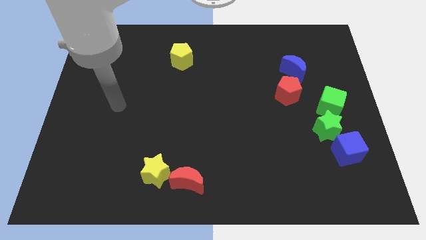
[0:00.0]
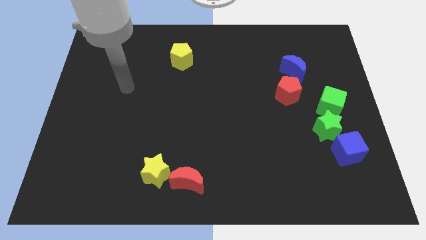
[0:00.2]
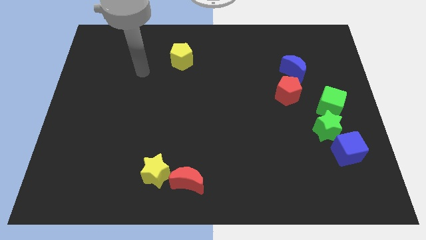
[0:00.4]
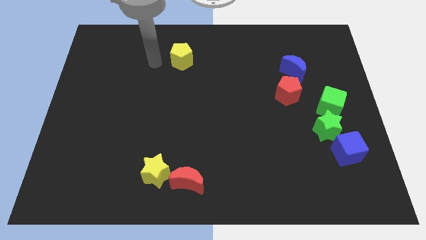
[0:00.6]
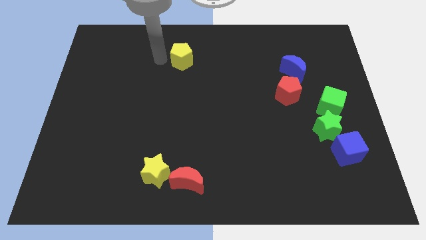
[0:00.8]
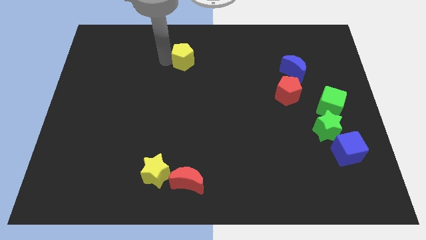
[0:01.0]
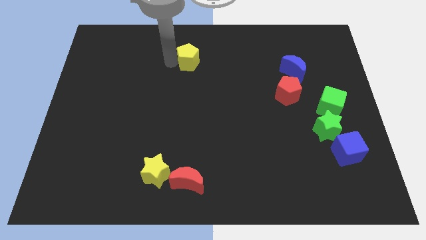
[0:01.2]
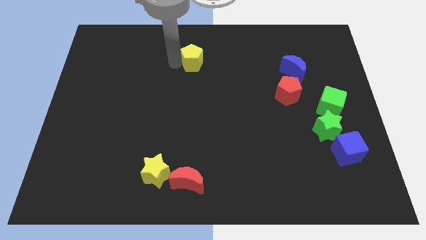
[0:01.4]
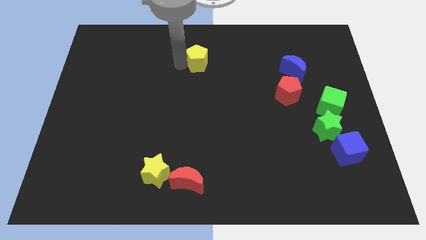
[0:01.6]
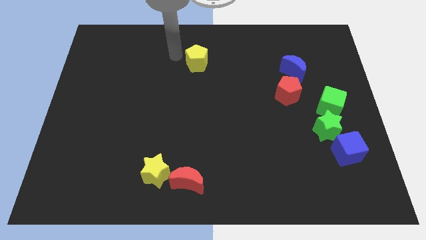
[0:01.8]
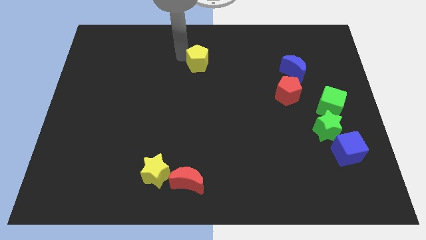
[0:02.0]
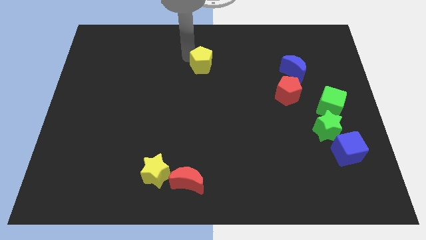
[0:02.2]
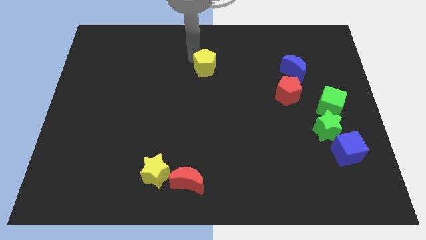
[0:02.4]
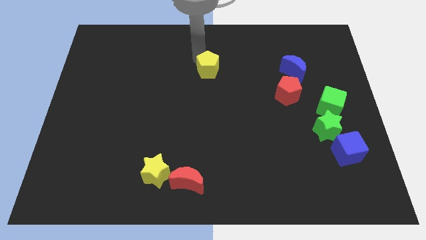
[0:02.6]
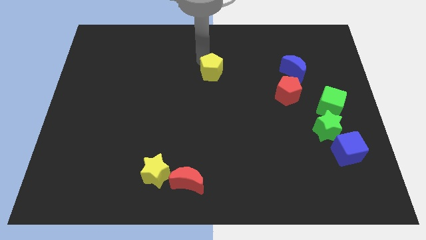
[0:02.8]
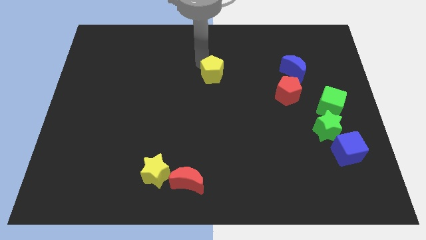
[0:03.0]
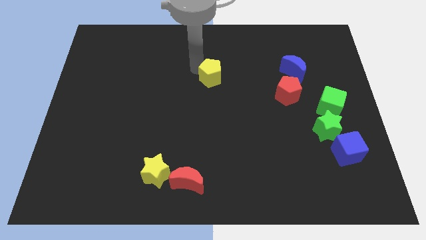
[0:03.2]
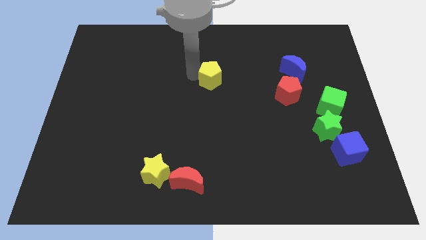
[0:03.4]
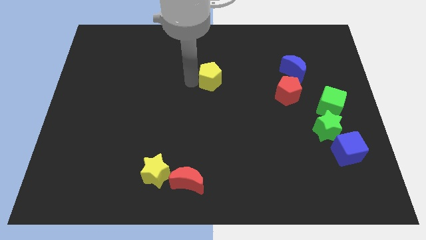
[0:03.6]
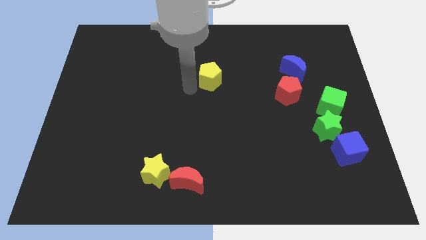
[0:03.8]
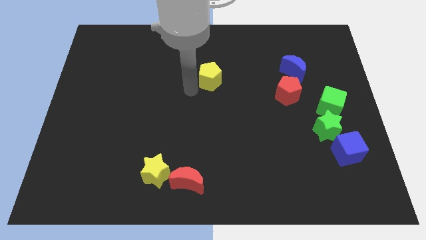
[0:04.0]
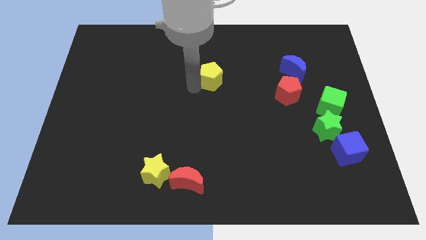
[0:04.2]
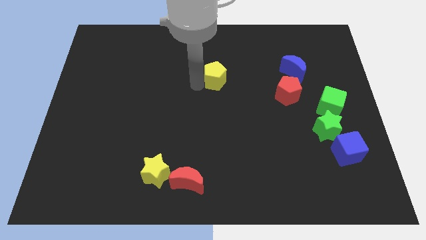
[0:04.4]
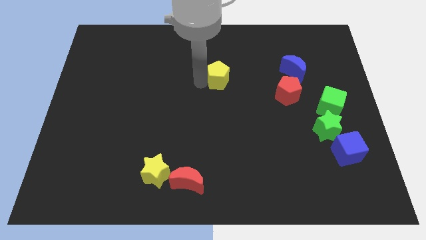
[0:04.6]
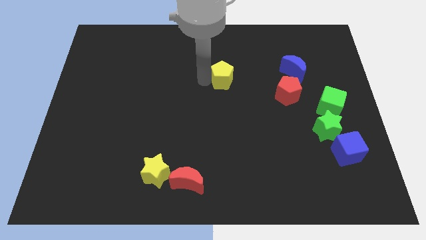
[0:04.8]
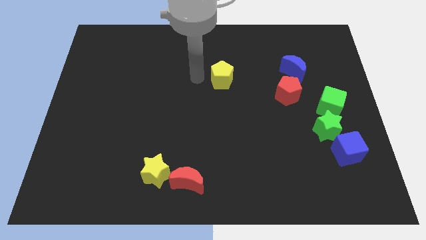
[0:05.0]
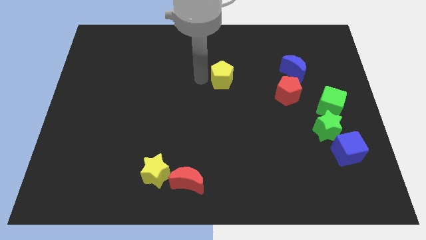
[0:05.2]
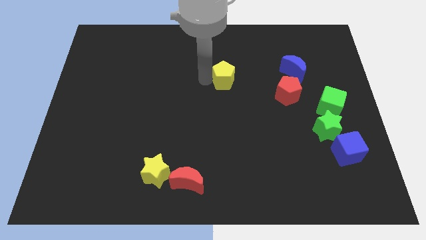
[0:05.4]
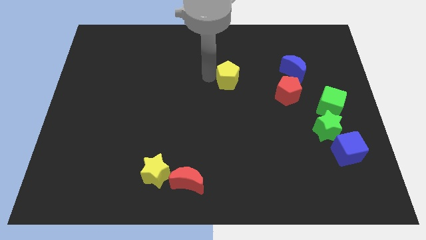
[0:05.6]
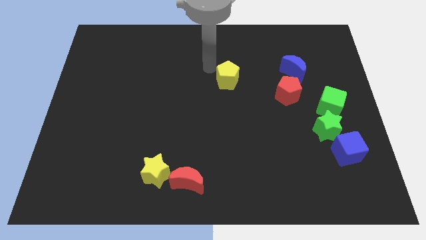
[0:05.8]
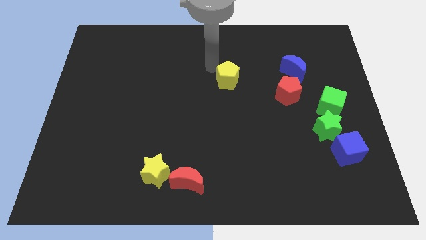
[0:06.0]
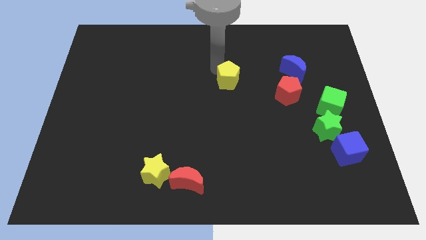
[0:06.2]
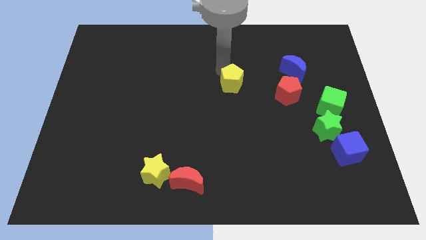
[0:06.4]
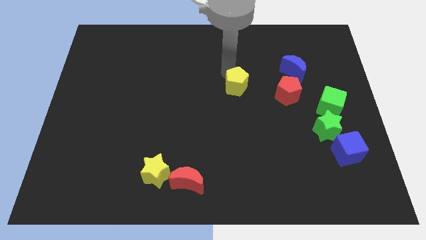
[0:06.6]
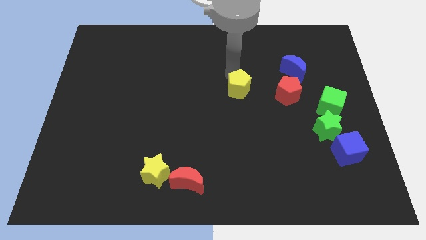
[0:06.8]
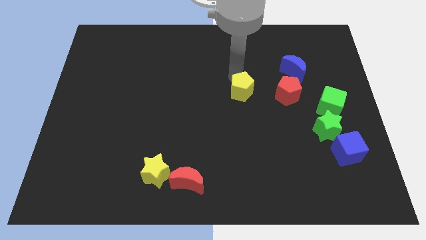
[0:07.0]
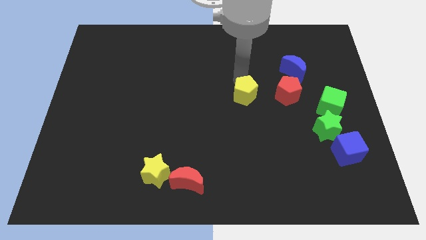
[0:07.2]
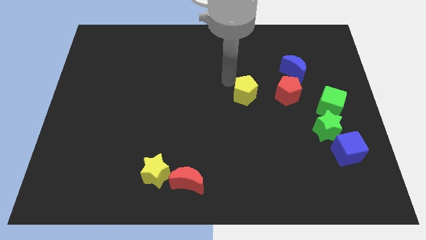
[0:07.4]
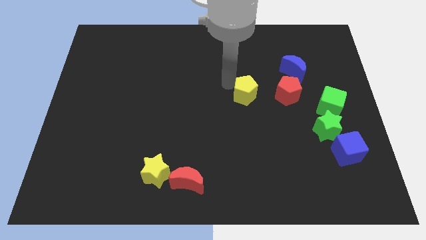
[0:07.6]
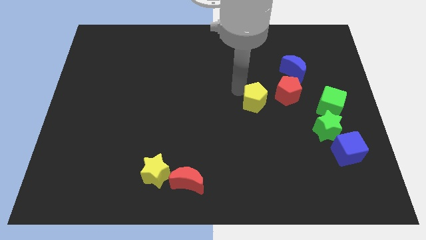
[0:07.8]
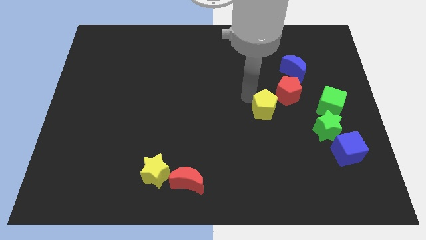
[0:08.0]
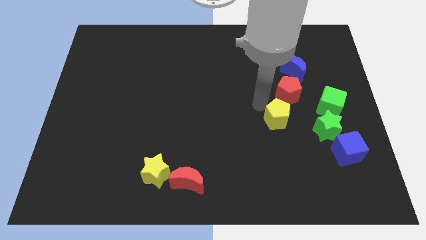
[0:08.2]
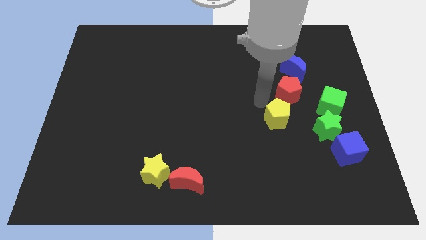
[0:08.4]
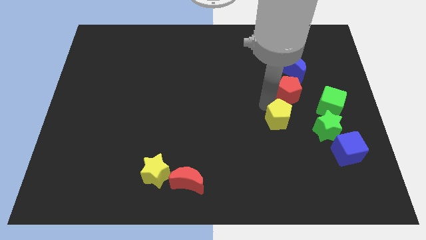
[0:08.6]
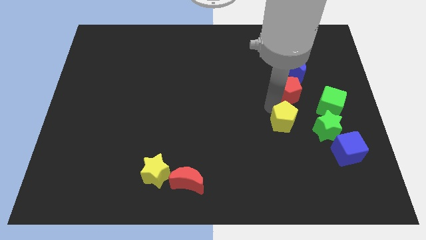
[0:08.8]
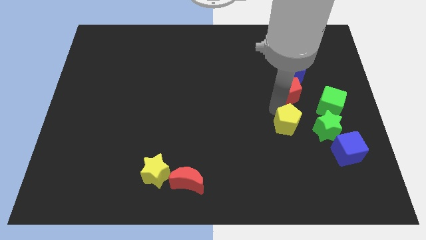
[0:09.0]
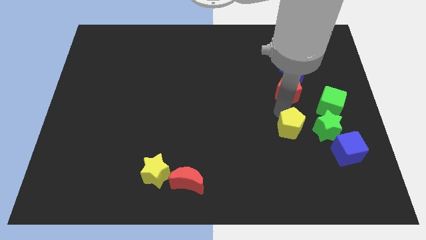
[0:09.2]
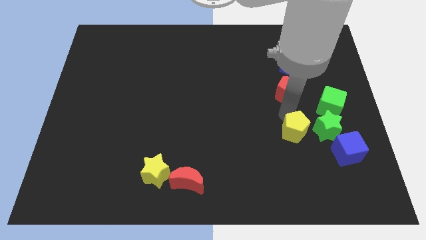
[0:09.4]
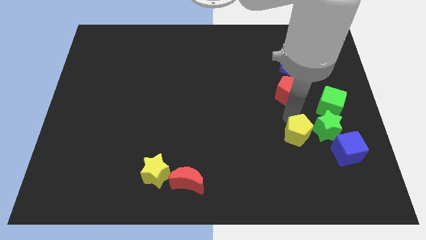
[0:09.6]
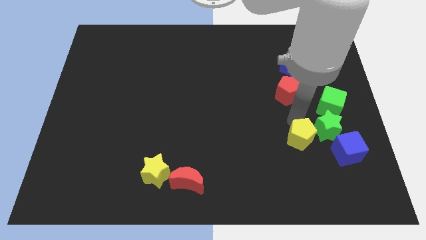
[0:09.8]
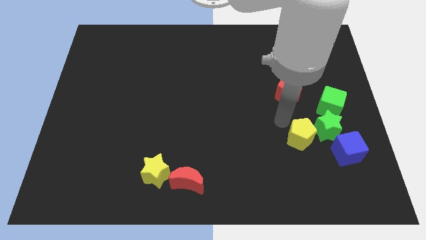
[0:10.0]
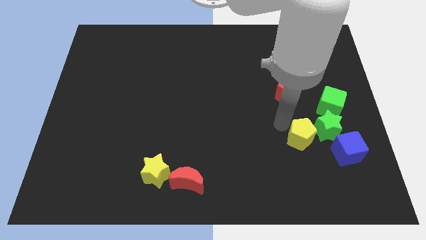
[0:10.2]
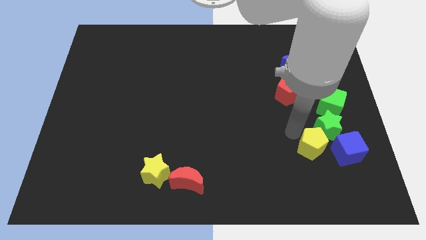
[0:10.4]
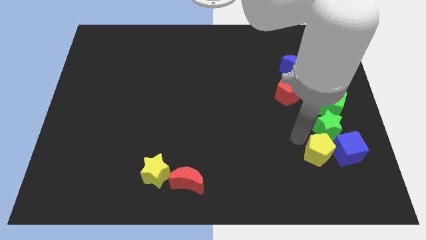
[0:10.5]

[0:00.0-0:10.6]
move the yellow pentagon close to the blue cube

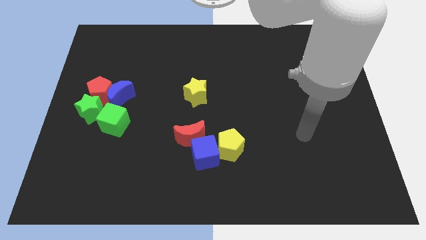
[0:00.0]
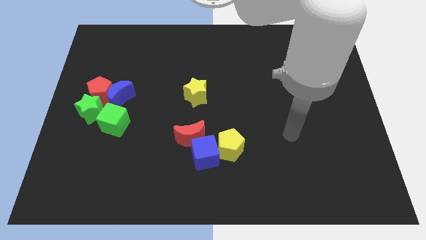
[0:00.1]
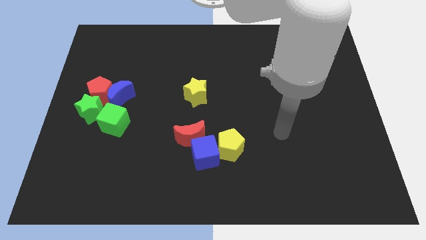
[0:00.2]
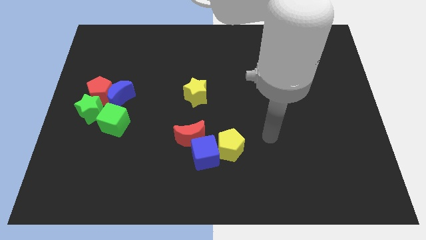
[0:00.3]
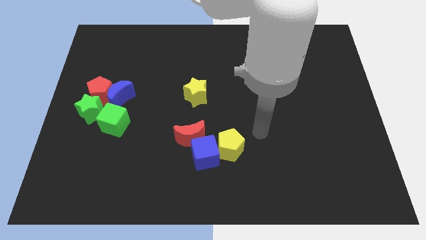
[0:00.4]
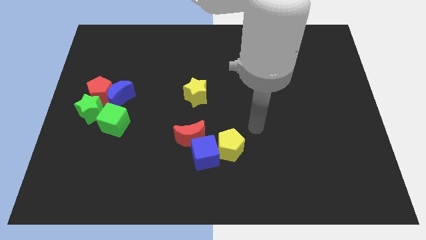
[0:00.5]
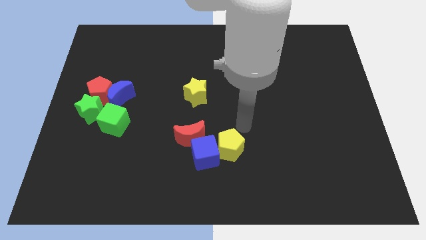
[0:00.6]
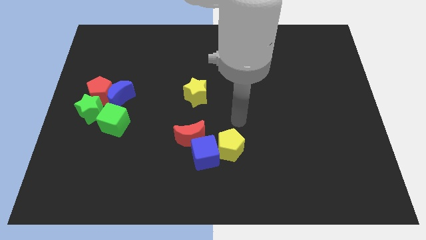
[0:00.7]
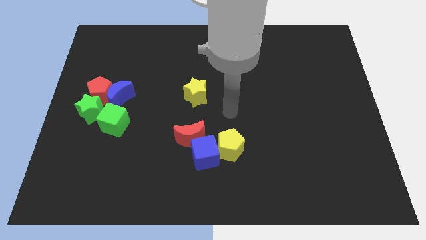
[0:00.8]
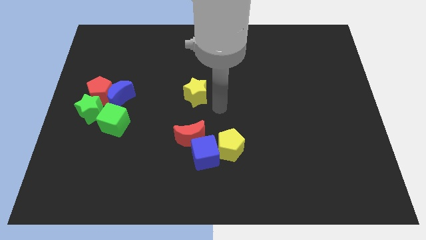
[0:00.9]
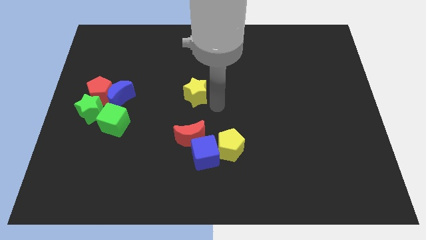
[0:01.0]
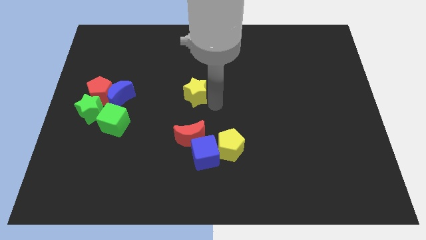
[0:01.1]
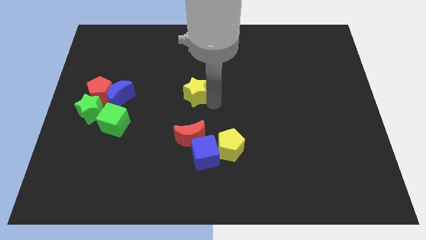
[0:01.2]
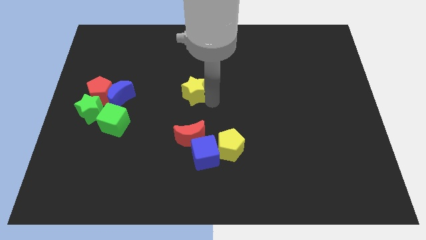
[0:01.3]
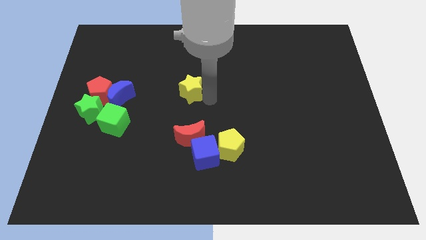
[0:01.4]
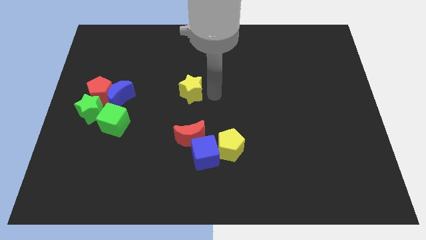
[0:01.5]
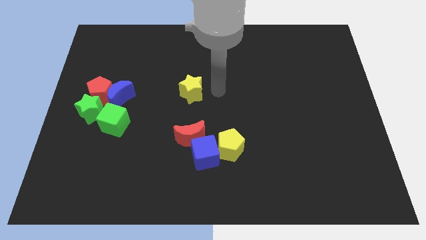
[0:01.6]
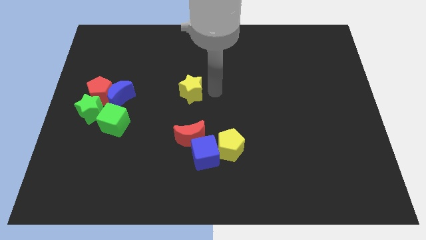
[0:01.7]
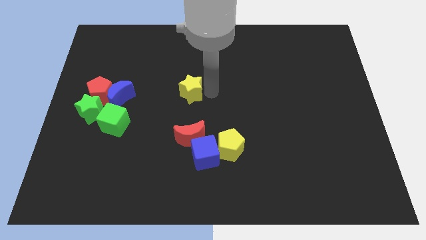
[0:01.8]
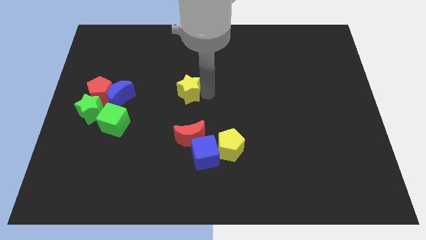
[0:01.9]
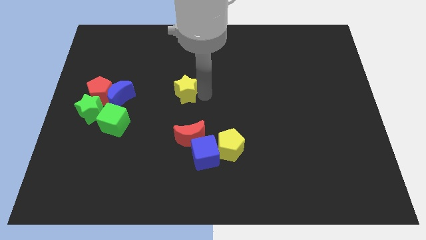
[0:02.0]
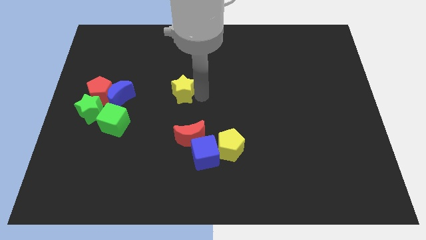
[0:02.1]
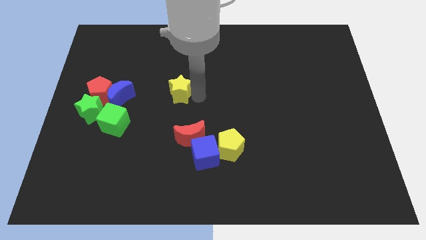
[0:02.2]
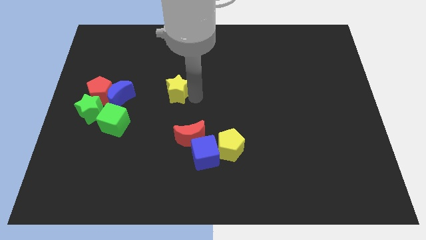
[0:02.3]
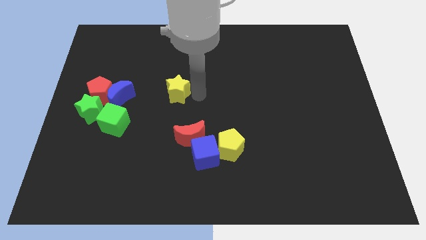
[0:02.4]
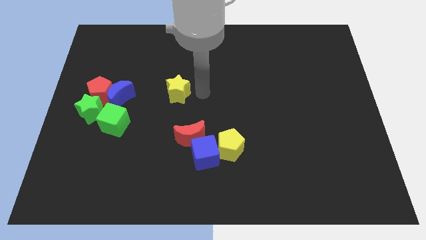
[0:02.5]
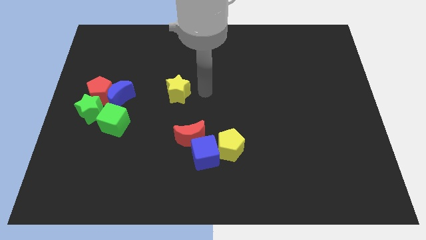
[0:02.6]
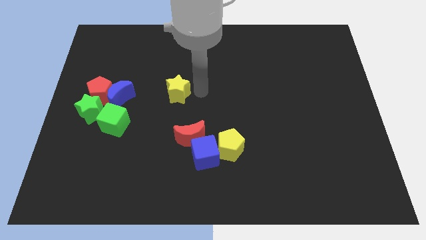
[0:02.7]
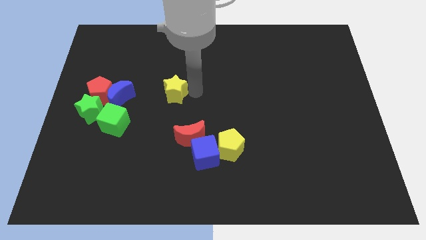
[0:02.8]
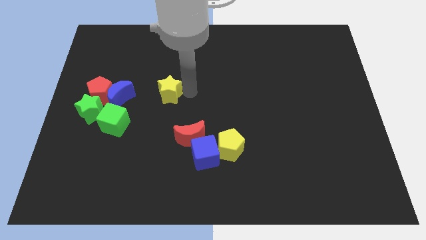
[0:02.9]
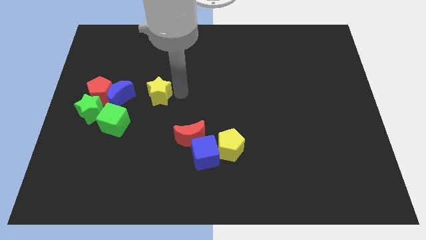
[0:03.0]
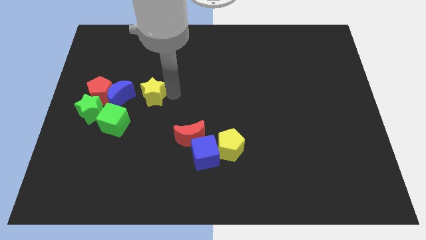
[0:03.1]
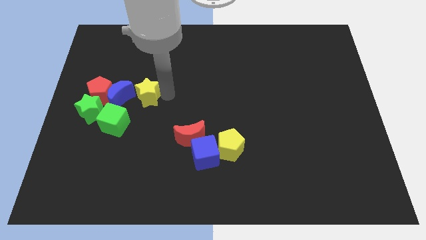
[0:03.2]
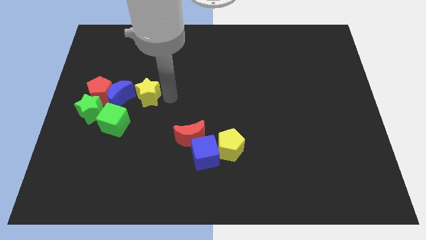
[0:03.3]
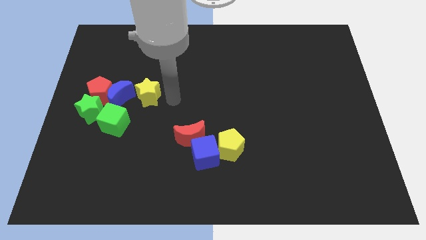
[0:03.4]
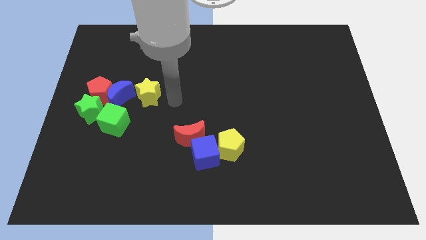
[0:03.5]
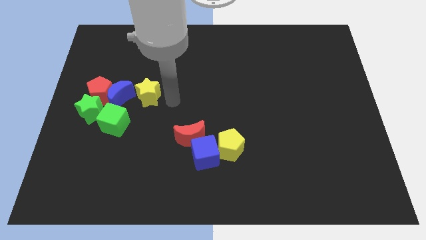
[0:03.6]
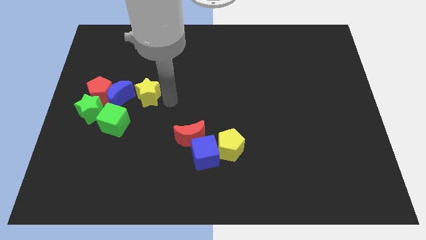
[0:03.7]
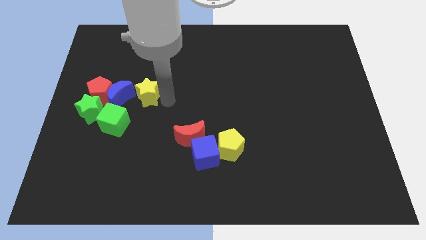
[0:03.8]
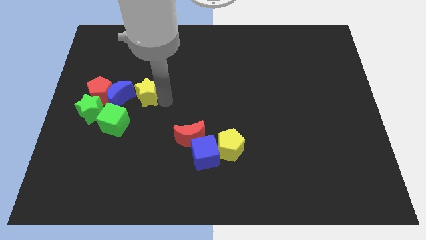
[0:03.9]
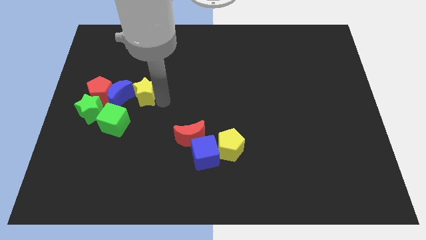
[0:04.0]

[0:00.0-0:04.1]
push the yellow star close to the blue moon
